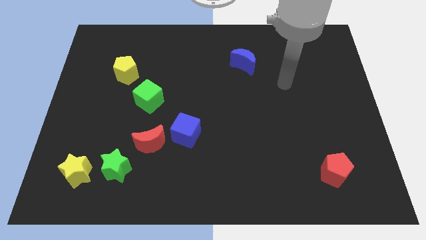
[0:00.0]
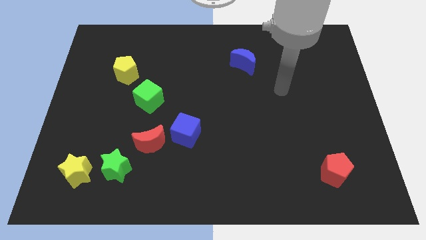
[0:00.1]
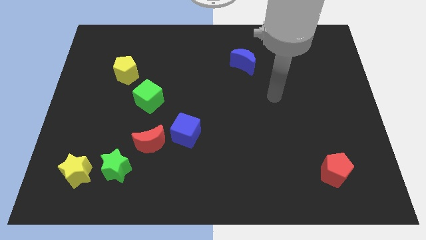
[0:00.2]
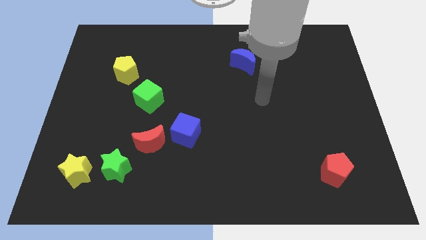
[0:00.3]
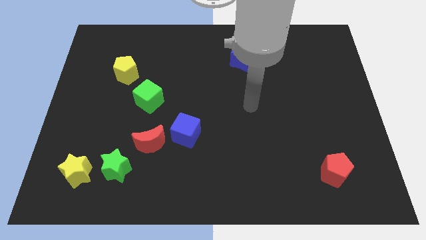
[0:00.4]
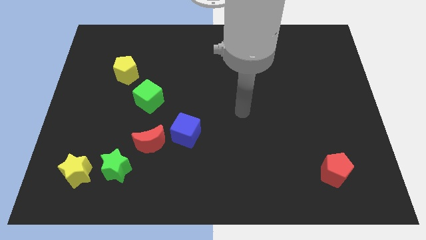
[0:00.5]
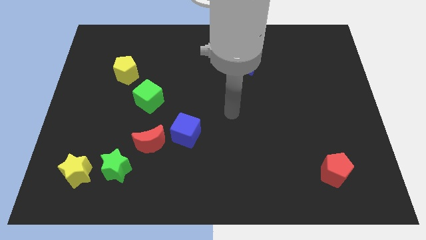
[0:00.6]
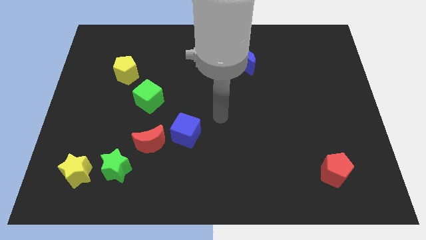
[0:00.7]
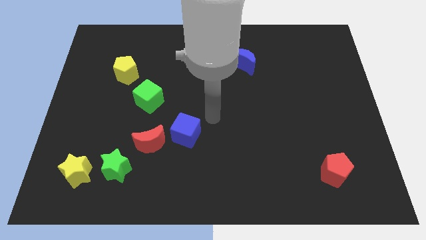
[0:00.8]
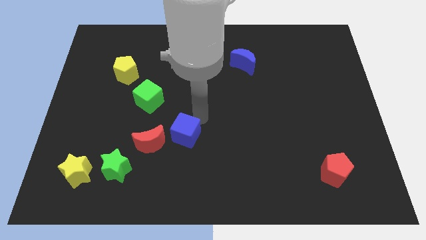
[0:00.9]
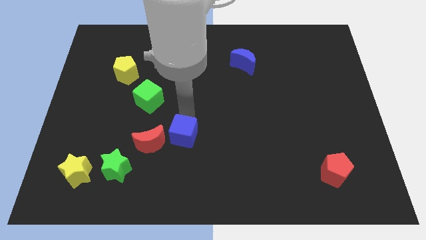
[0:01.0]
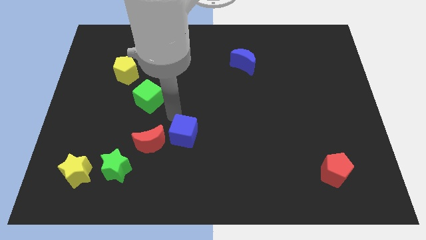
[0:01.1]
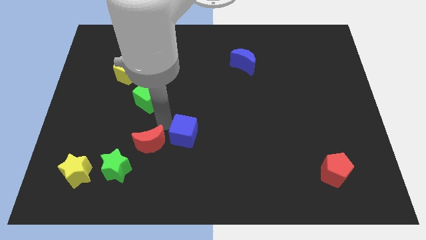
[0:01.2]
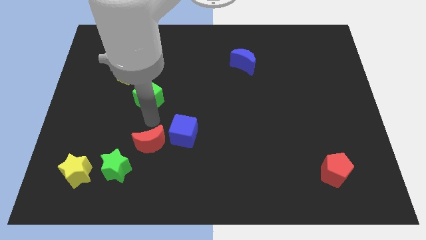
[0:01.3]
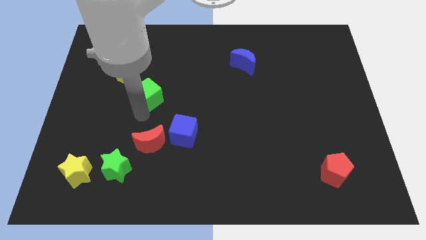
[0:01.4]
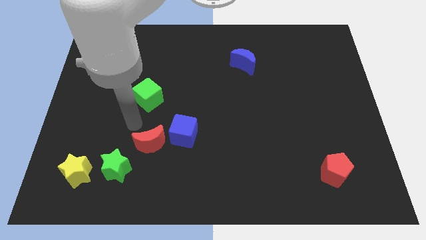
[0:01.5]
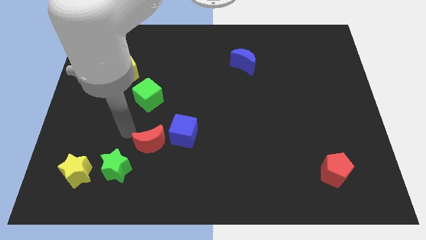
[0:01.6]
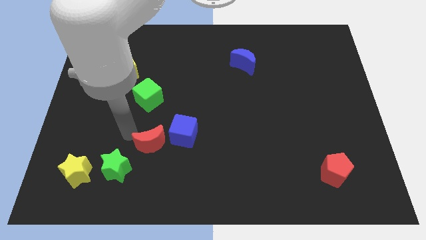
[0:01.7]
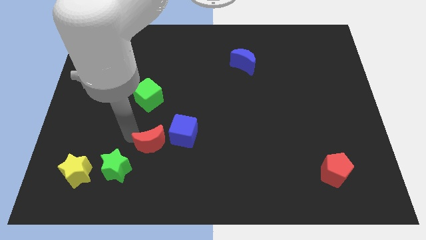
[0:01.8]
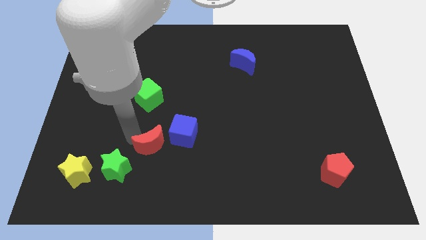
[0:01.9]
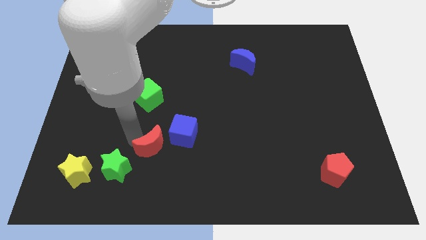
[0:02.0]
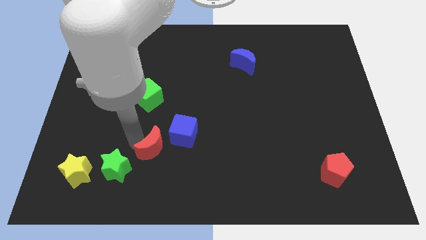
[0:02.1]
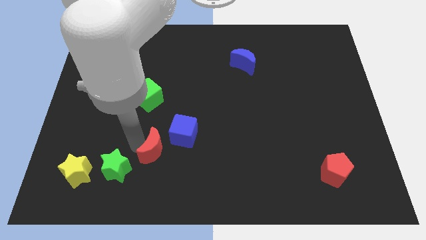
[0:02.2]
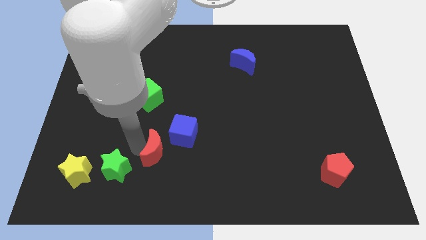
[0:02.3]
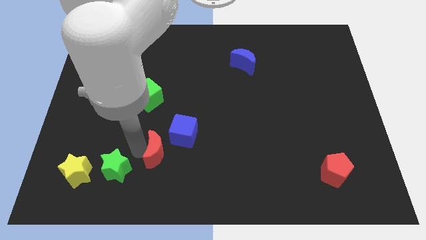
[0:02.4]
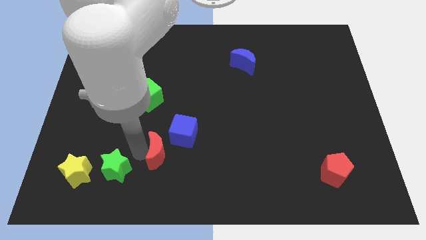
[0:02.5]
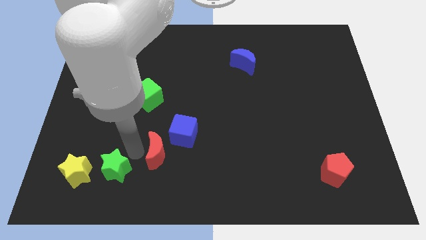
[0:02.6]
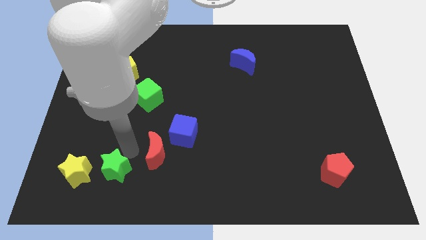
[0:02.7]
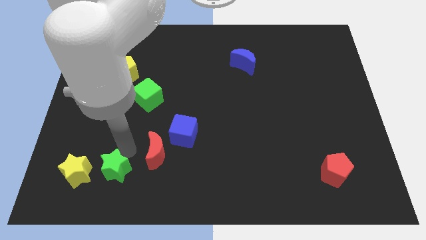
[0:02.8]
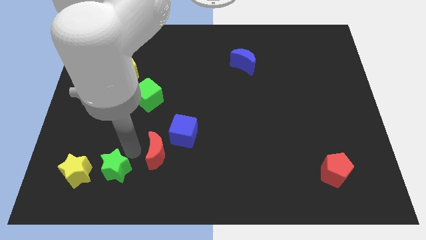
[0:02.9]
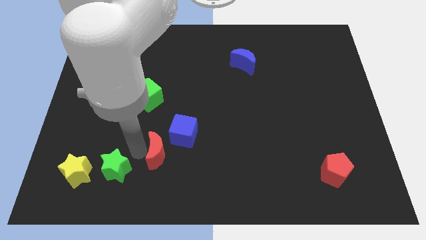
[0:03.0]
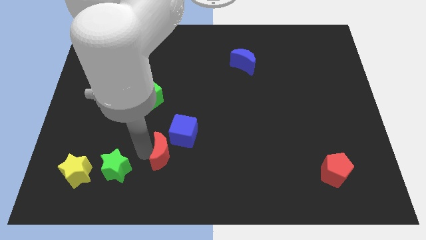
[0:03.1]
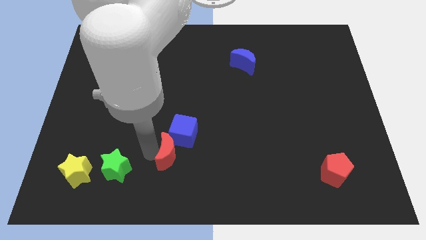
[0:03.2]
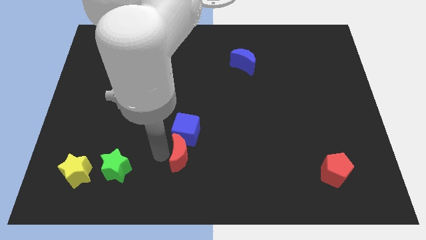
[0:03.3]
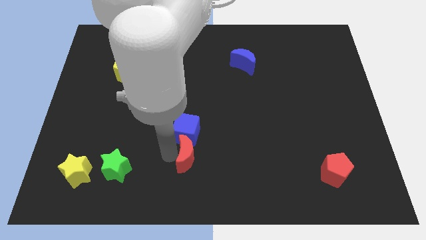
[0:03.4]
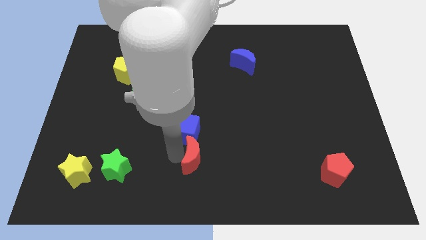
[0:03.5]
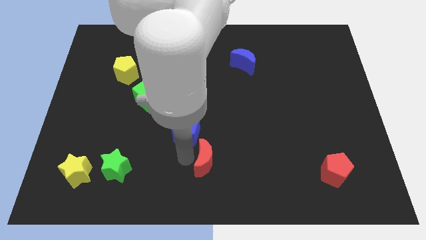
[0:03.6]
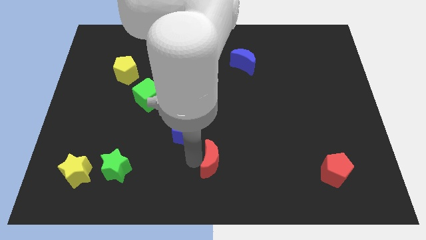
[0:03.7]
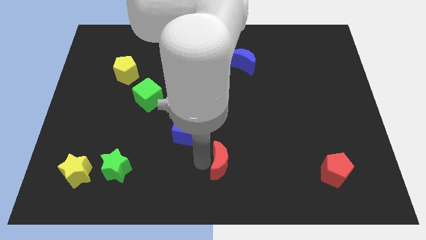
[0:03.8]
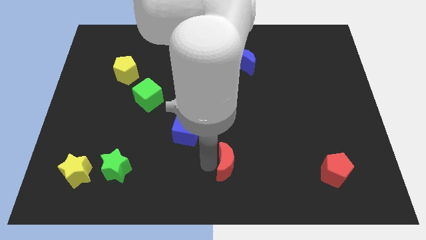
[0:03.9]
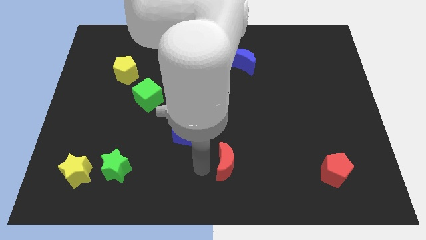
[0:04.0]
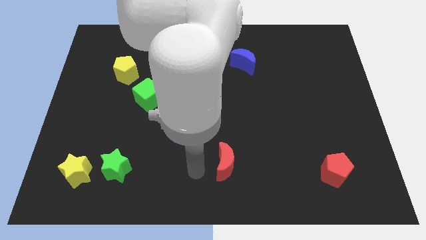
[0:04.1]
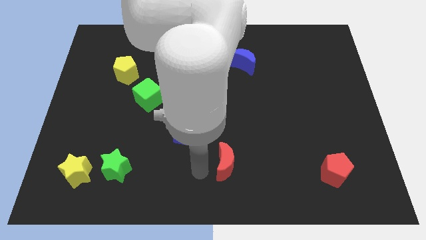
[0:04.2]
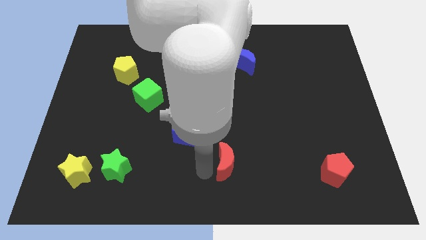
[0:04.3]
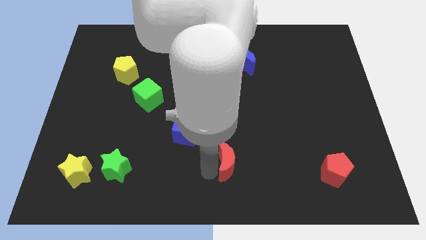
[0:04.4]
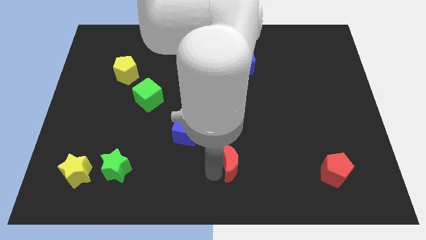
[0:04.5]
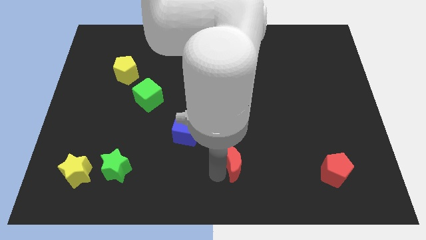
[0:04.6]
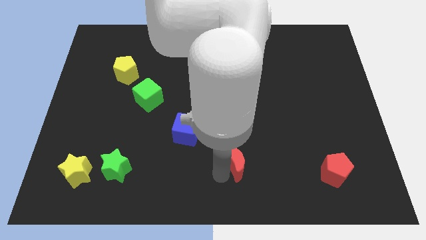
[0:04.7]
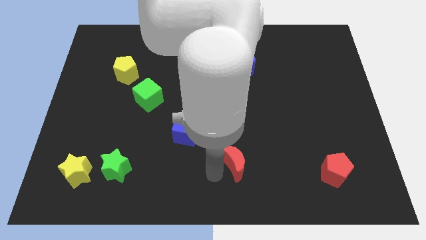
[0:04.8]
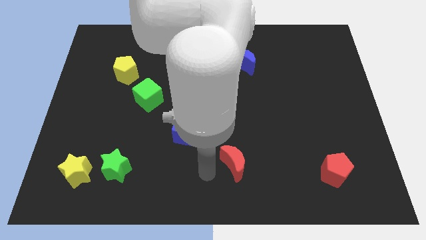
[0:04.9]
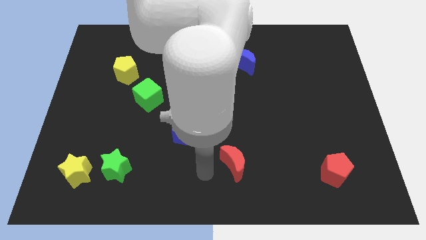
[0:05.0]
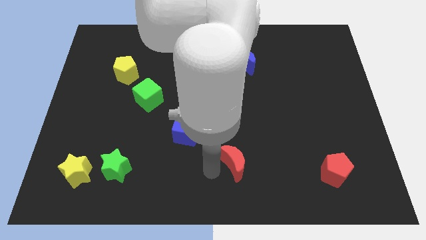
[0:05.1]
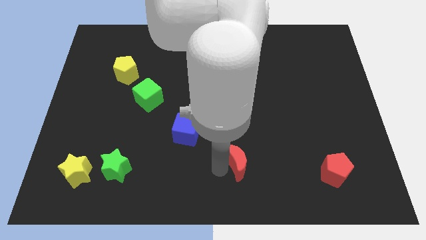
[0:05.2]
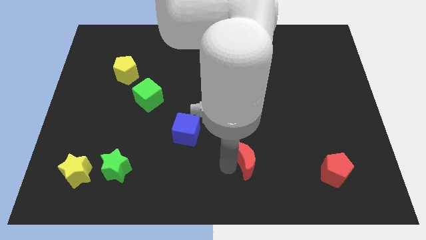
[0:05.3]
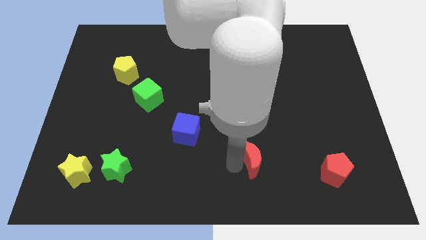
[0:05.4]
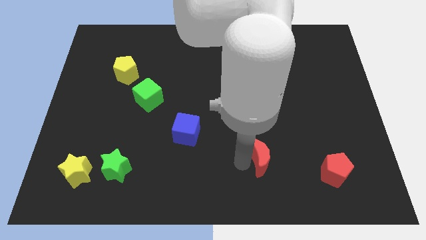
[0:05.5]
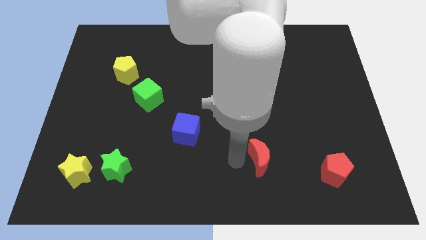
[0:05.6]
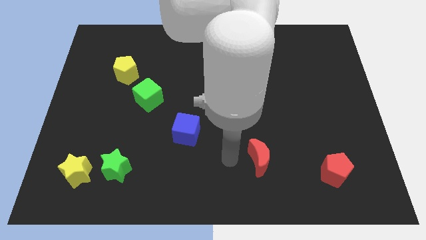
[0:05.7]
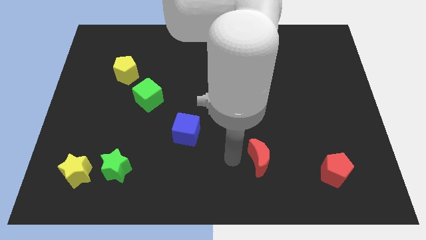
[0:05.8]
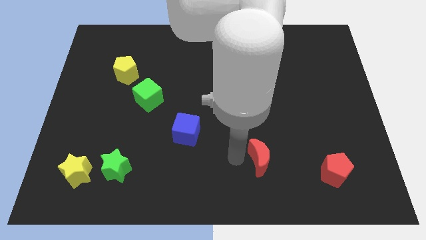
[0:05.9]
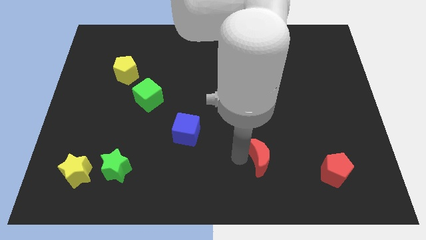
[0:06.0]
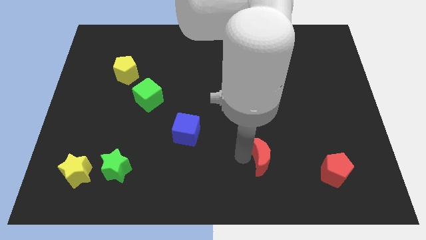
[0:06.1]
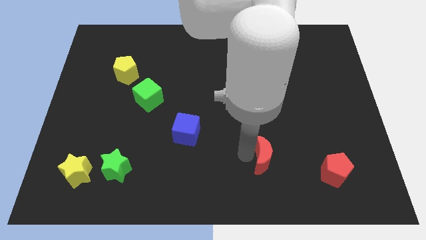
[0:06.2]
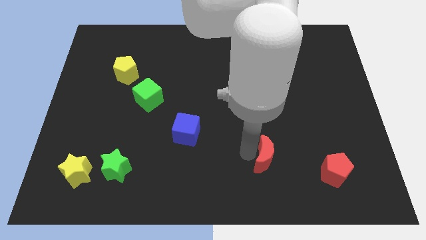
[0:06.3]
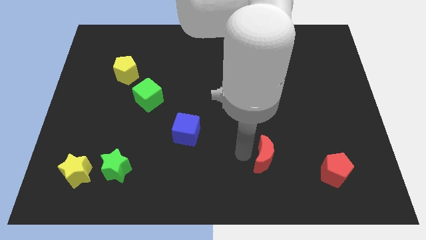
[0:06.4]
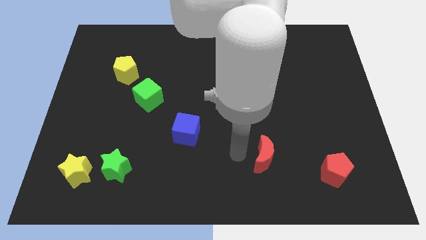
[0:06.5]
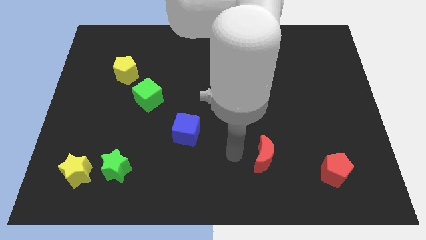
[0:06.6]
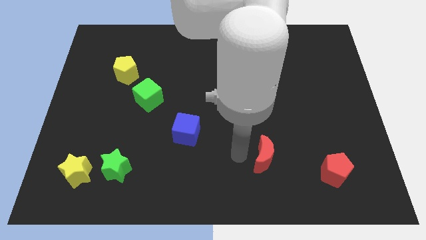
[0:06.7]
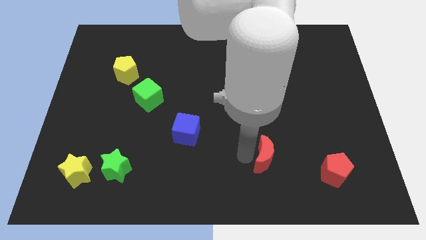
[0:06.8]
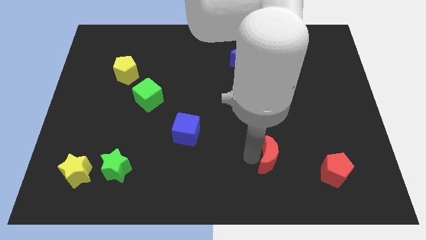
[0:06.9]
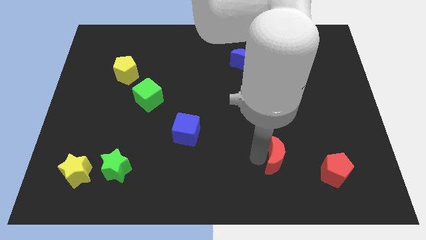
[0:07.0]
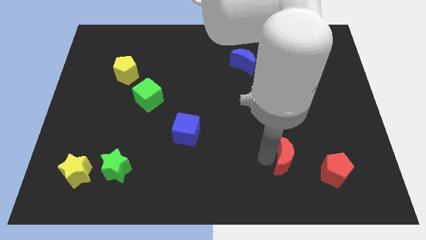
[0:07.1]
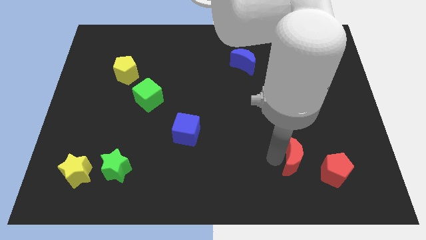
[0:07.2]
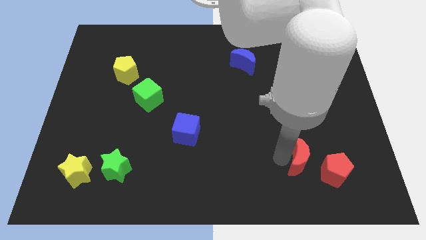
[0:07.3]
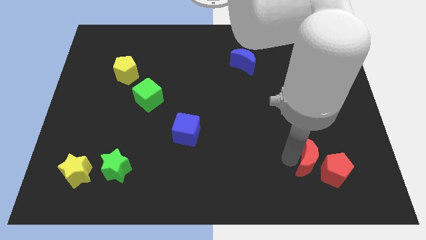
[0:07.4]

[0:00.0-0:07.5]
put the red moon to the red pentagon

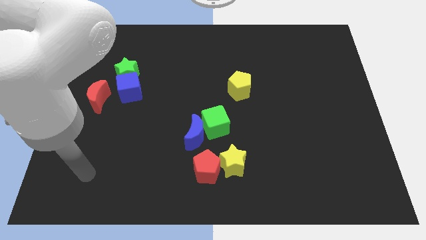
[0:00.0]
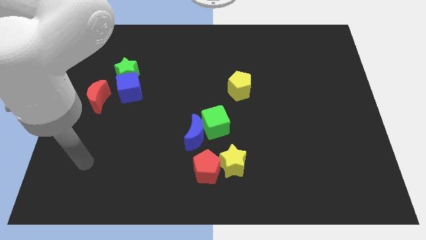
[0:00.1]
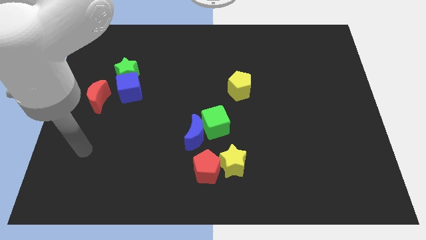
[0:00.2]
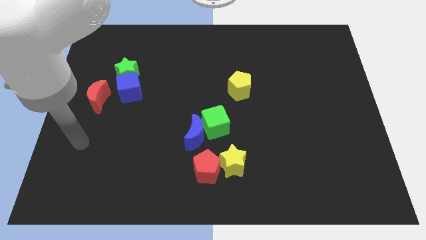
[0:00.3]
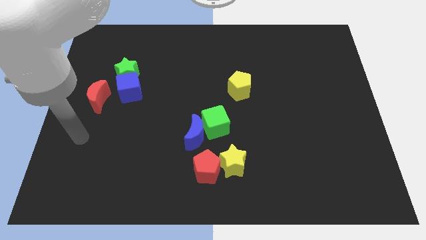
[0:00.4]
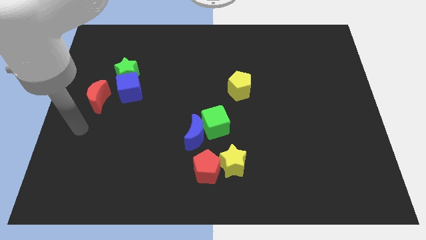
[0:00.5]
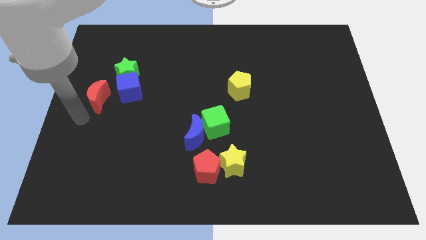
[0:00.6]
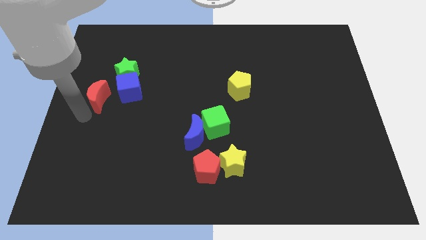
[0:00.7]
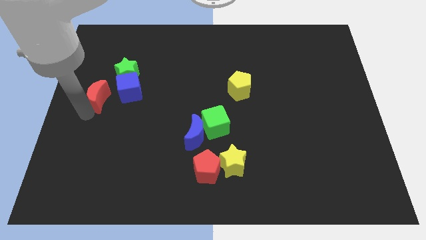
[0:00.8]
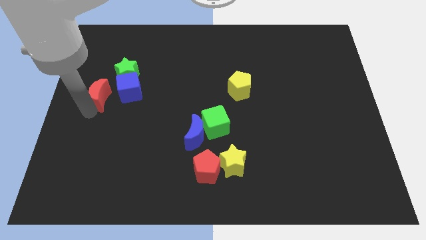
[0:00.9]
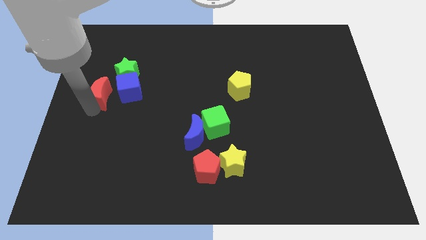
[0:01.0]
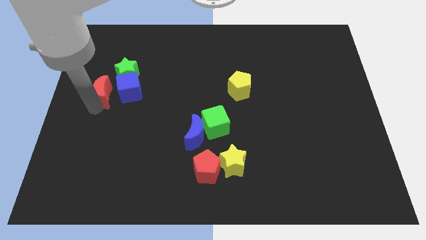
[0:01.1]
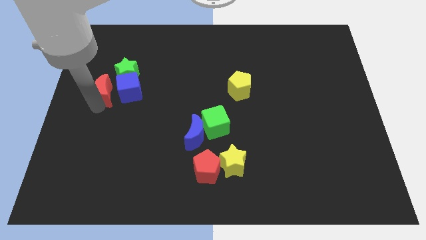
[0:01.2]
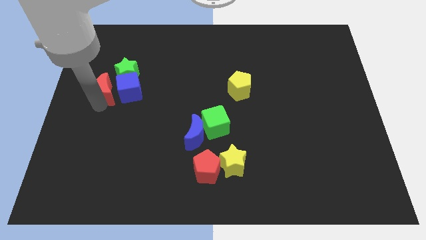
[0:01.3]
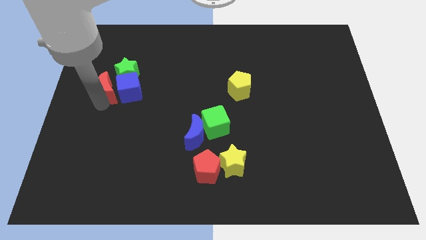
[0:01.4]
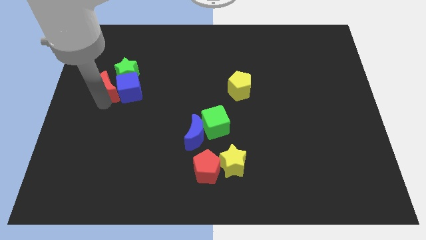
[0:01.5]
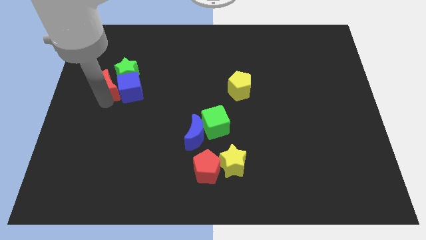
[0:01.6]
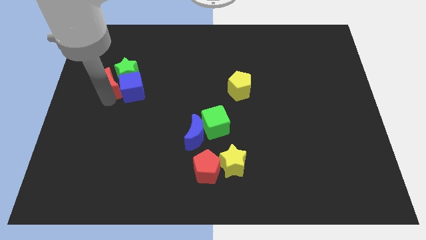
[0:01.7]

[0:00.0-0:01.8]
move the red moon close to the green star
